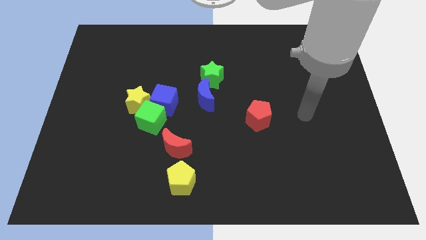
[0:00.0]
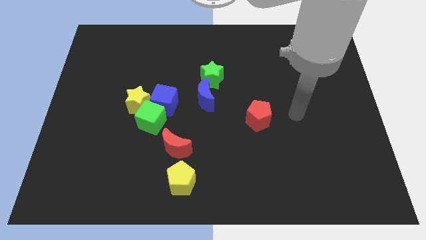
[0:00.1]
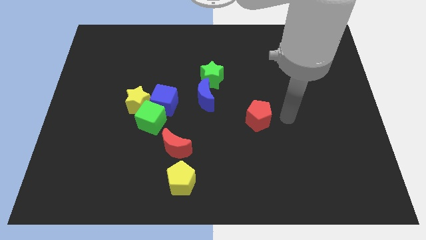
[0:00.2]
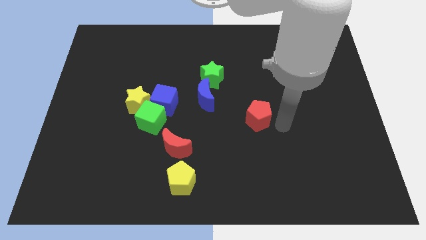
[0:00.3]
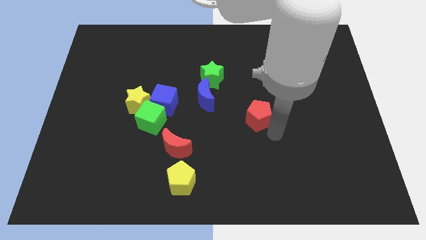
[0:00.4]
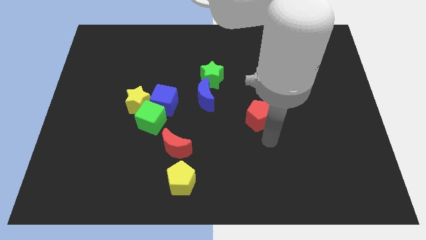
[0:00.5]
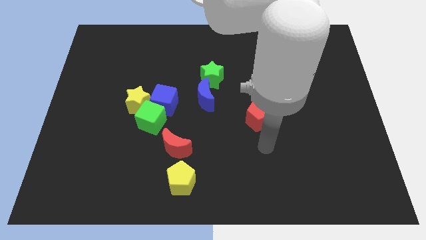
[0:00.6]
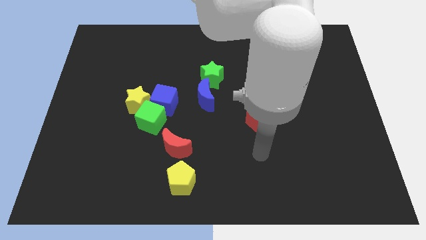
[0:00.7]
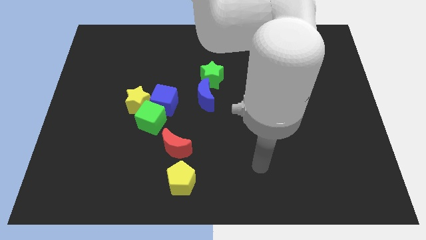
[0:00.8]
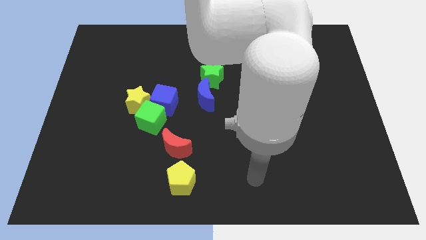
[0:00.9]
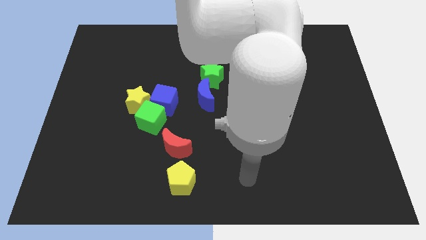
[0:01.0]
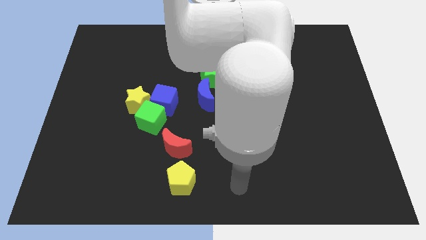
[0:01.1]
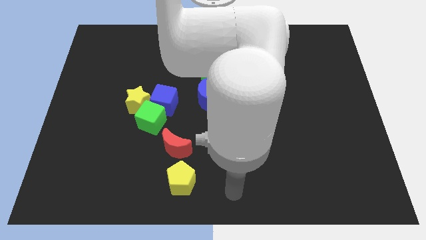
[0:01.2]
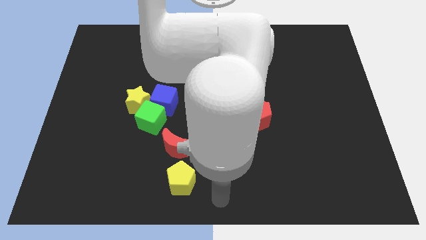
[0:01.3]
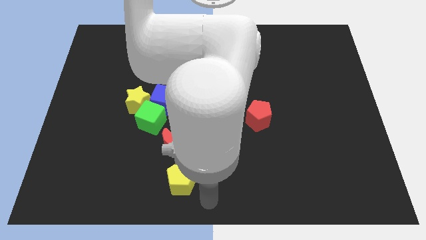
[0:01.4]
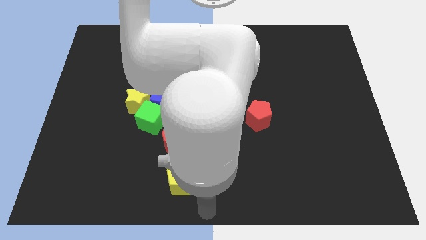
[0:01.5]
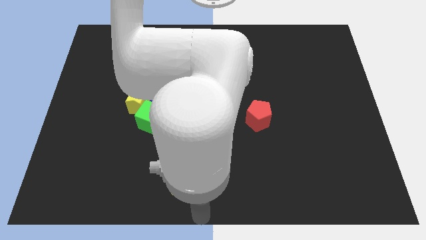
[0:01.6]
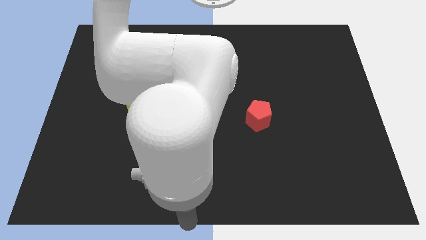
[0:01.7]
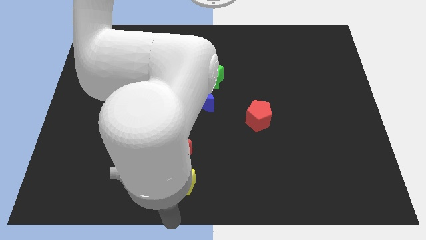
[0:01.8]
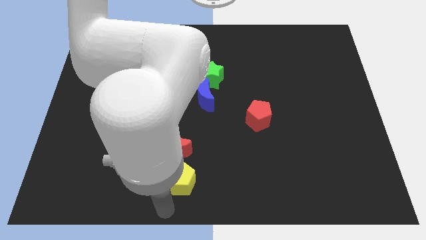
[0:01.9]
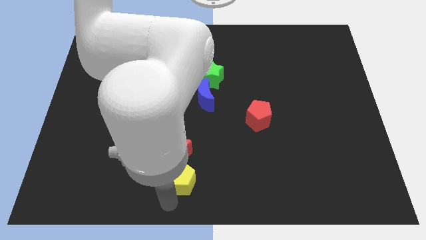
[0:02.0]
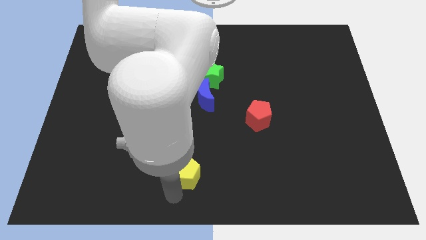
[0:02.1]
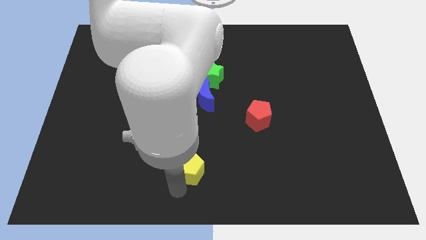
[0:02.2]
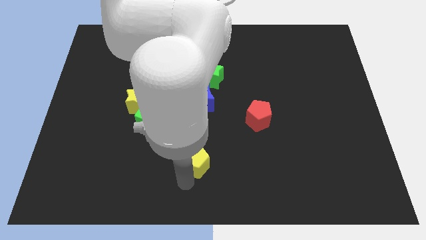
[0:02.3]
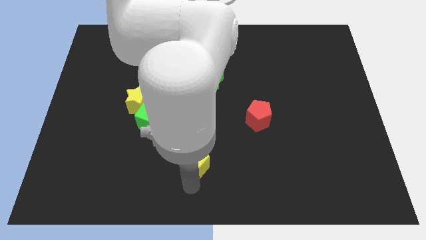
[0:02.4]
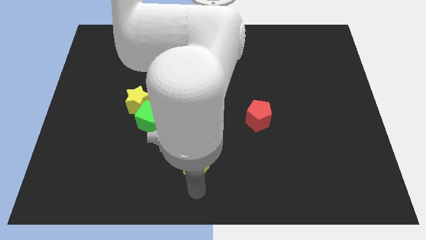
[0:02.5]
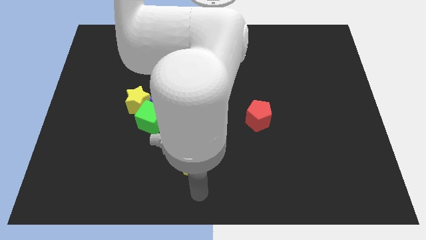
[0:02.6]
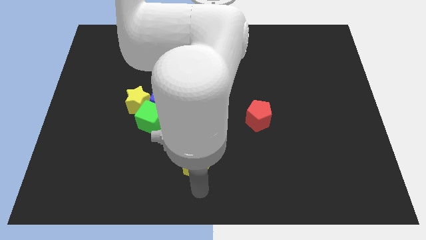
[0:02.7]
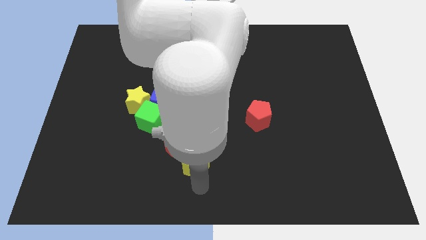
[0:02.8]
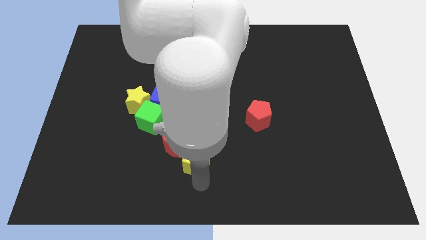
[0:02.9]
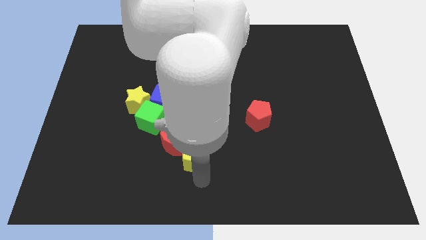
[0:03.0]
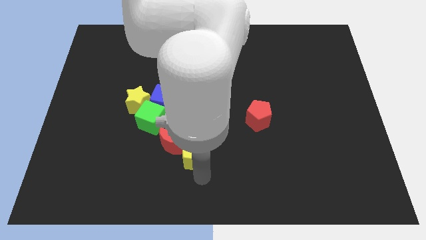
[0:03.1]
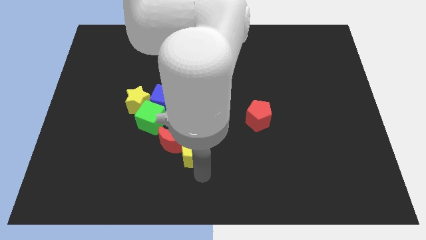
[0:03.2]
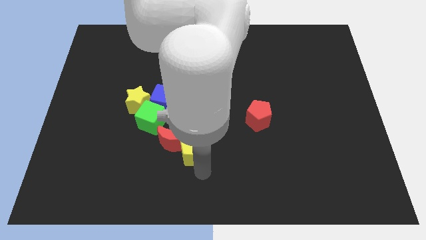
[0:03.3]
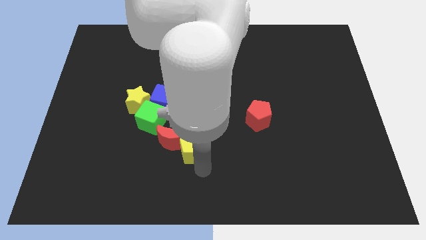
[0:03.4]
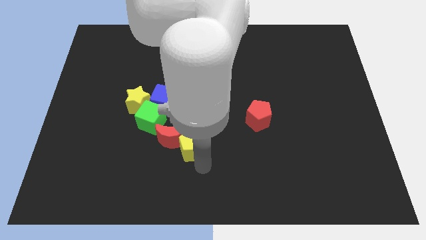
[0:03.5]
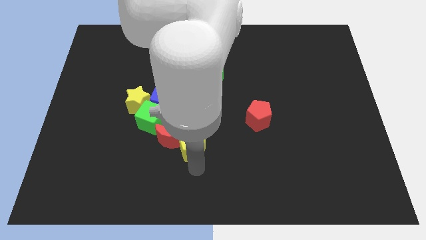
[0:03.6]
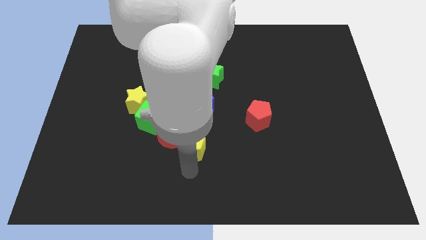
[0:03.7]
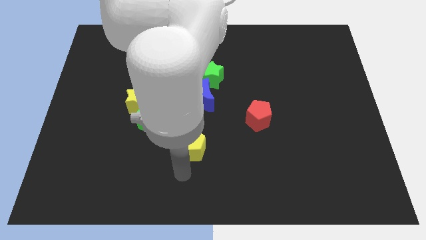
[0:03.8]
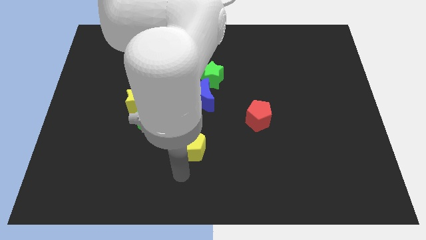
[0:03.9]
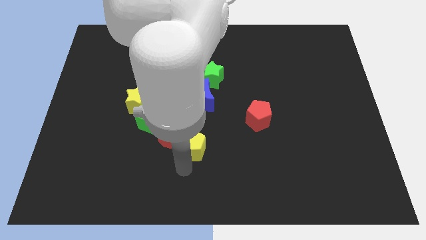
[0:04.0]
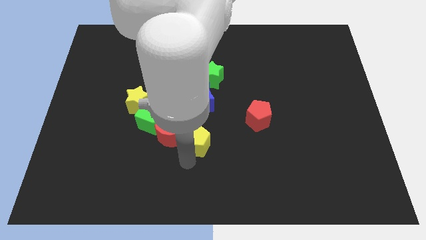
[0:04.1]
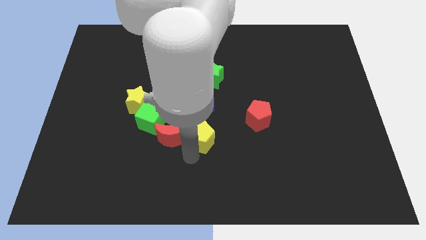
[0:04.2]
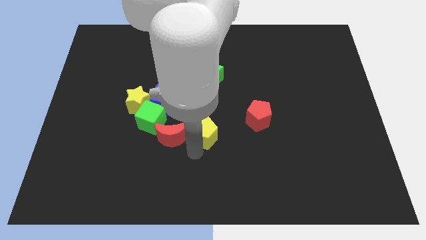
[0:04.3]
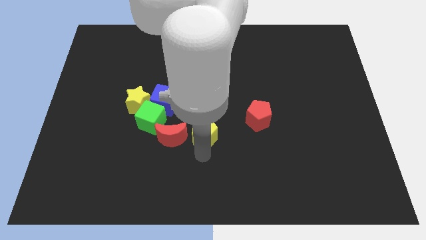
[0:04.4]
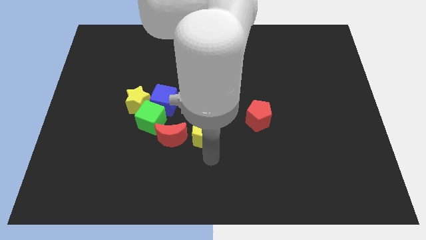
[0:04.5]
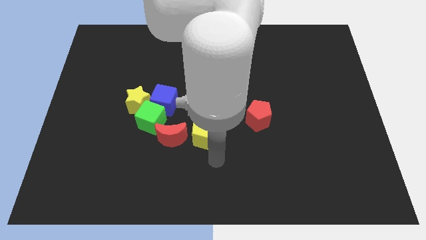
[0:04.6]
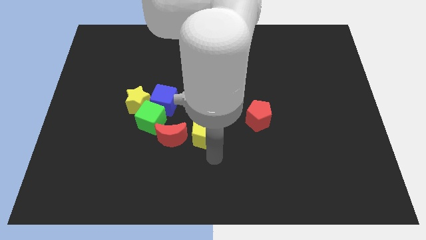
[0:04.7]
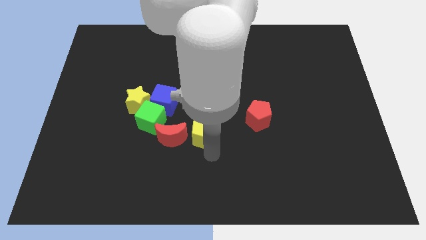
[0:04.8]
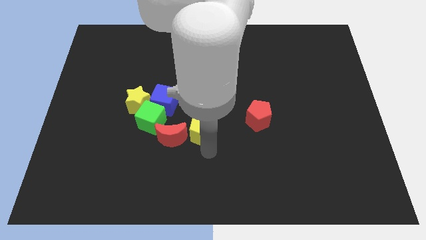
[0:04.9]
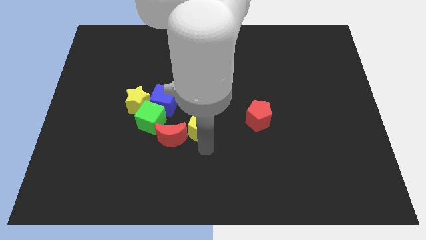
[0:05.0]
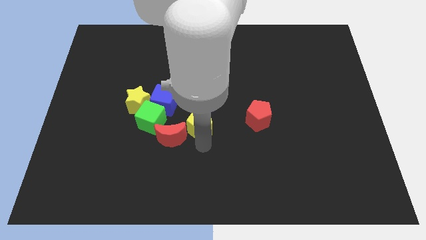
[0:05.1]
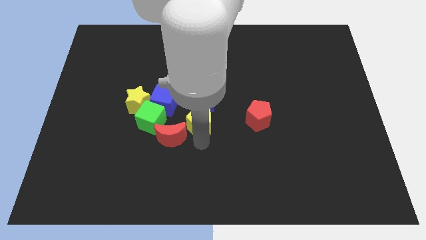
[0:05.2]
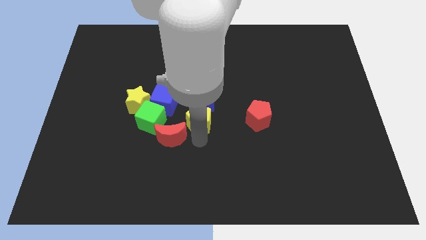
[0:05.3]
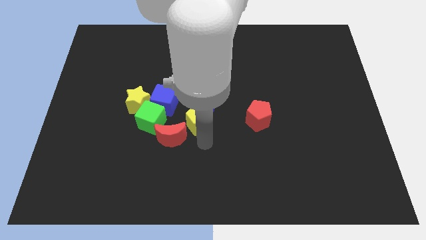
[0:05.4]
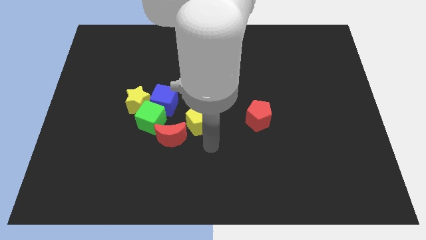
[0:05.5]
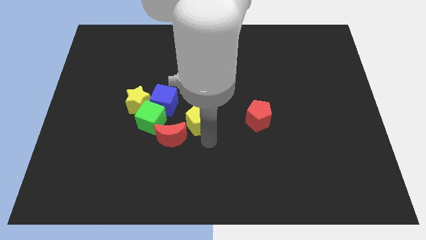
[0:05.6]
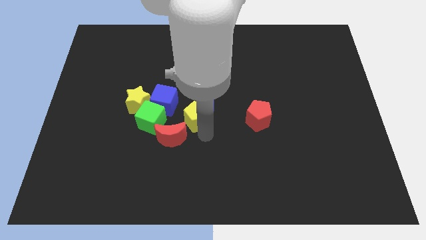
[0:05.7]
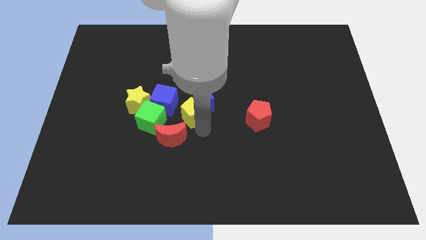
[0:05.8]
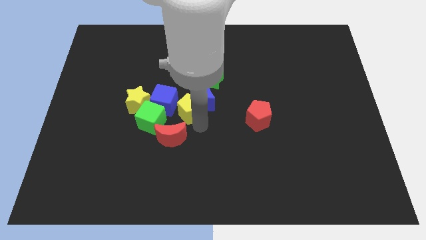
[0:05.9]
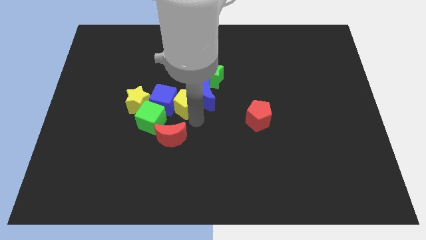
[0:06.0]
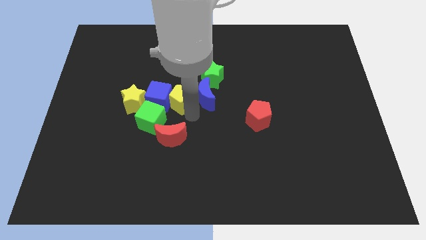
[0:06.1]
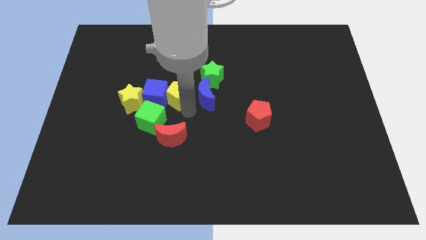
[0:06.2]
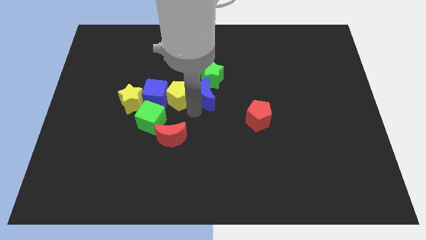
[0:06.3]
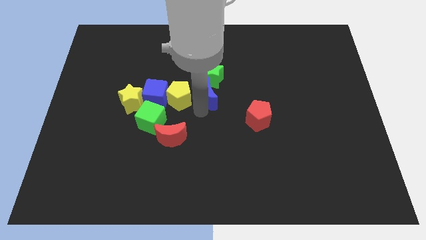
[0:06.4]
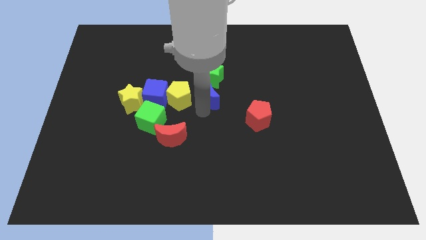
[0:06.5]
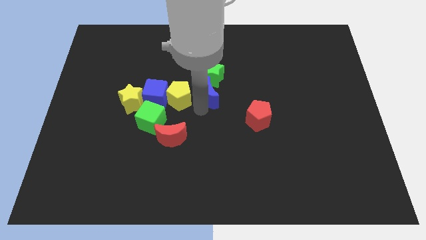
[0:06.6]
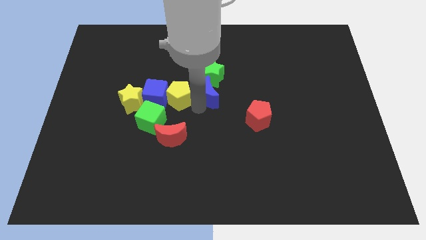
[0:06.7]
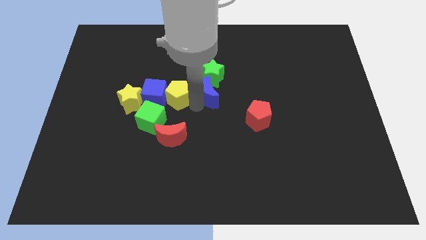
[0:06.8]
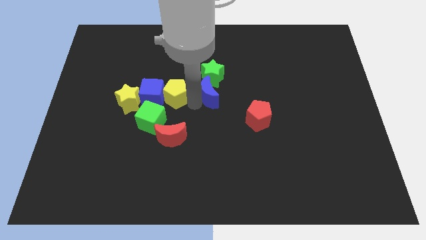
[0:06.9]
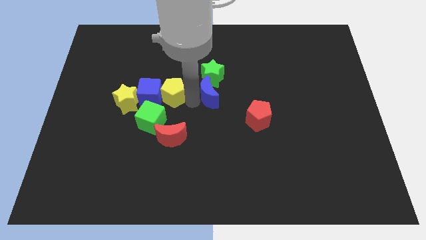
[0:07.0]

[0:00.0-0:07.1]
push the yellow pentagon above the green cube
